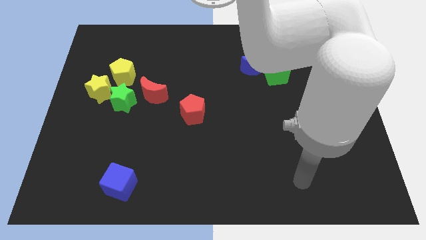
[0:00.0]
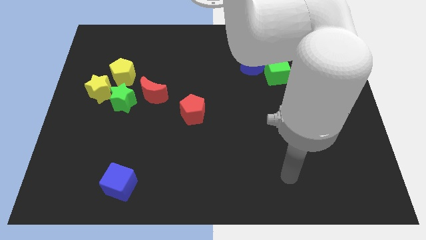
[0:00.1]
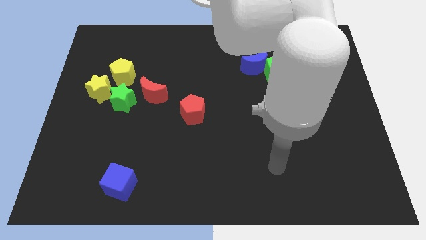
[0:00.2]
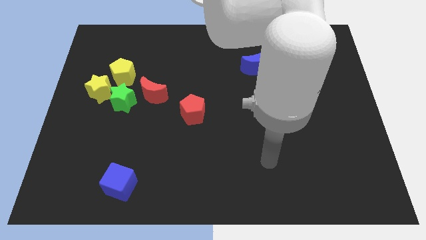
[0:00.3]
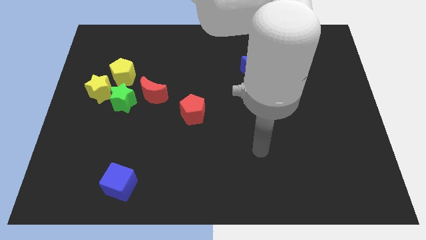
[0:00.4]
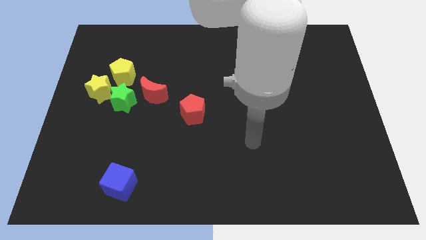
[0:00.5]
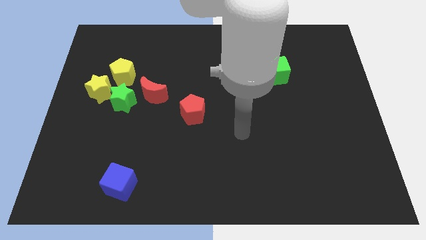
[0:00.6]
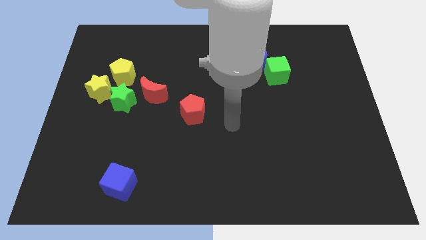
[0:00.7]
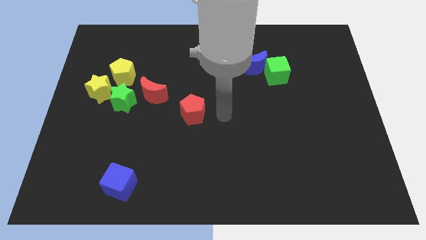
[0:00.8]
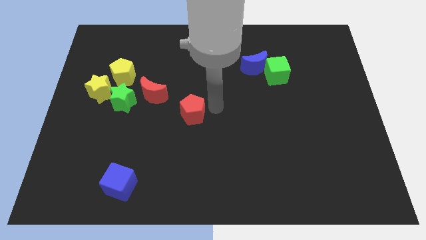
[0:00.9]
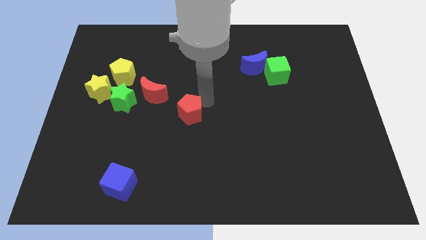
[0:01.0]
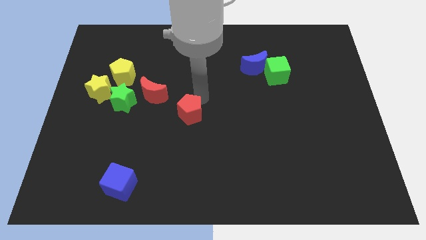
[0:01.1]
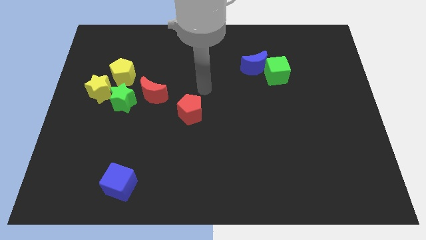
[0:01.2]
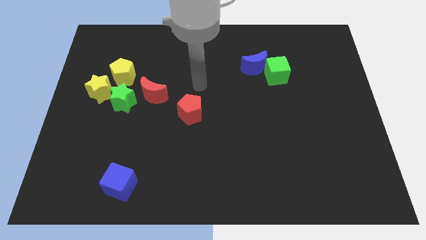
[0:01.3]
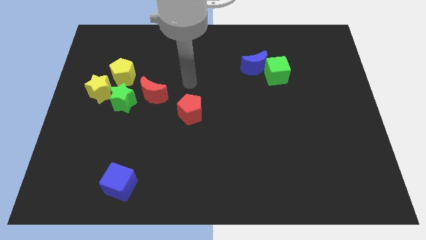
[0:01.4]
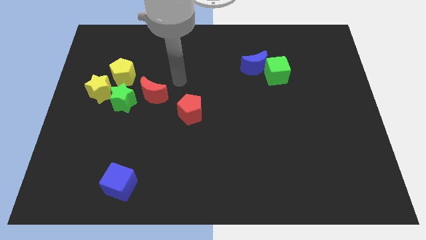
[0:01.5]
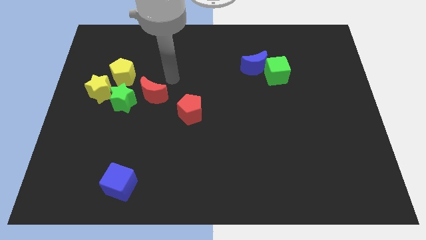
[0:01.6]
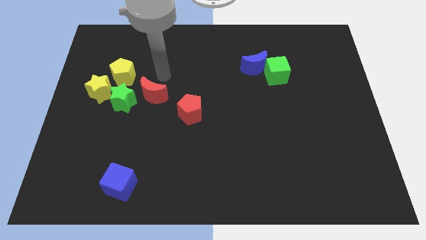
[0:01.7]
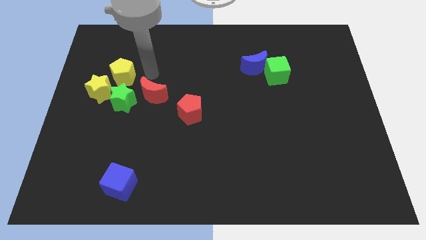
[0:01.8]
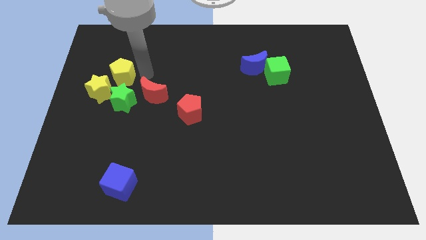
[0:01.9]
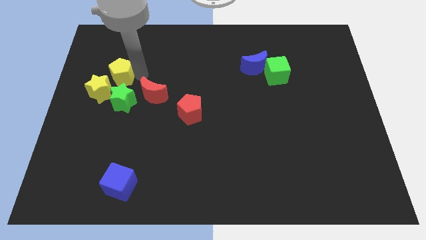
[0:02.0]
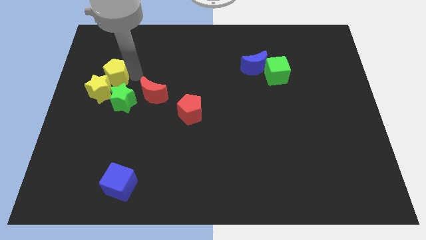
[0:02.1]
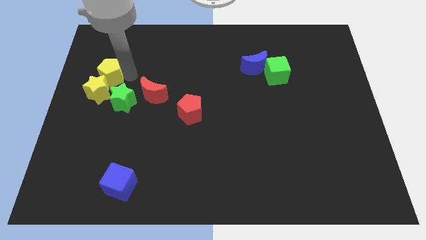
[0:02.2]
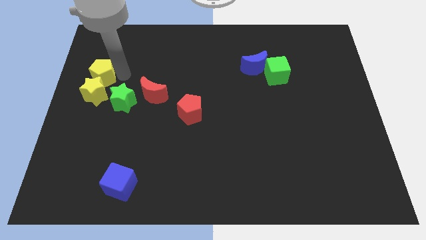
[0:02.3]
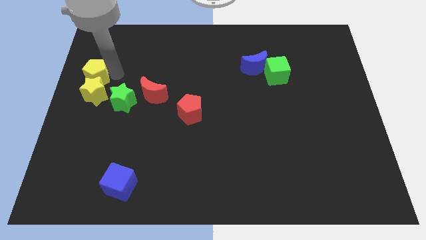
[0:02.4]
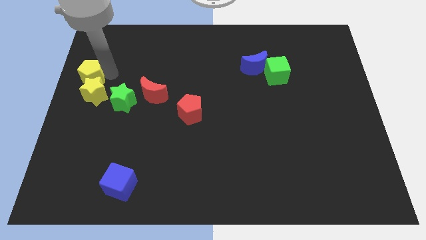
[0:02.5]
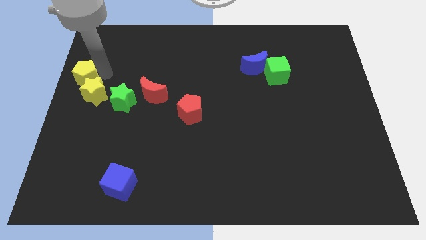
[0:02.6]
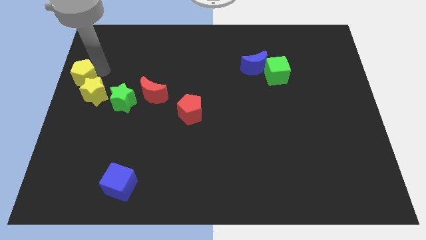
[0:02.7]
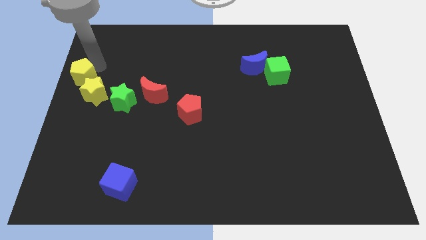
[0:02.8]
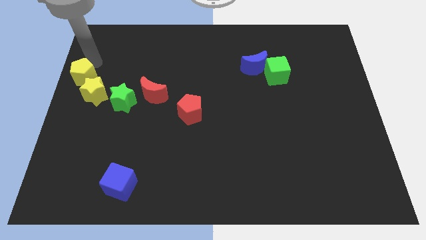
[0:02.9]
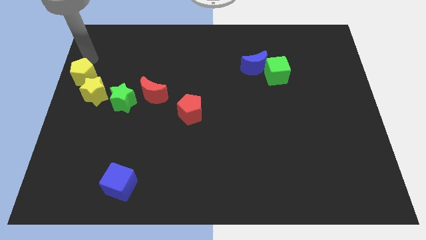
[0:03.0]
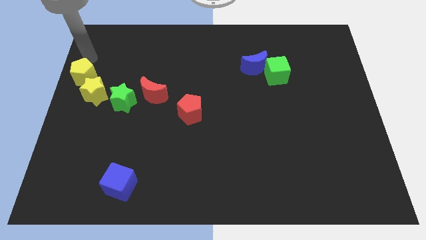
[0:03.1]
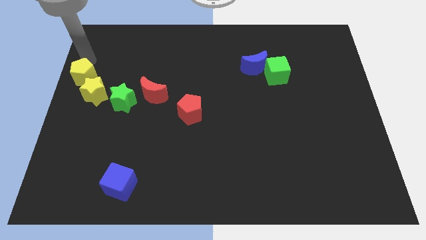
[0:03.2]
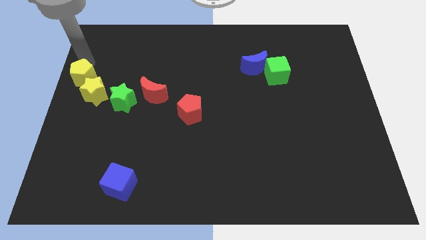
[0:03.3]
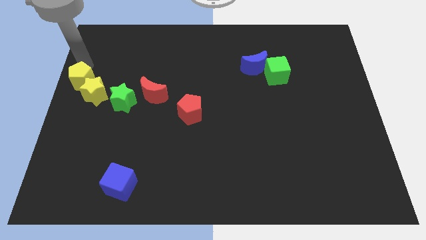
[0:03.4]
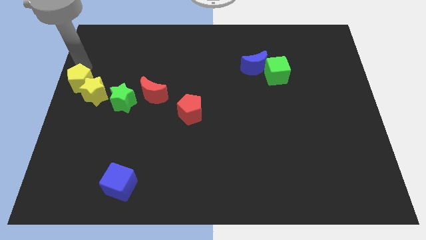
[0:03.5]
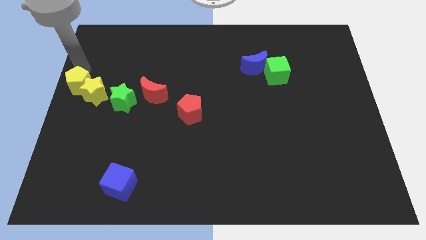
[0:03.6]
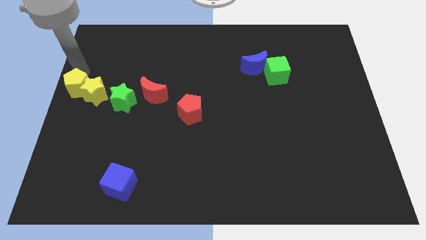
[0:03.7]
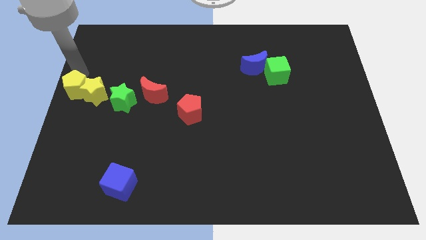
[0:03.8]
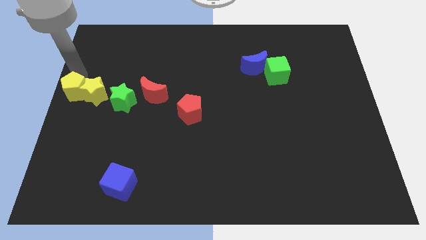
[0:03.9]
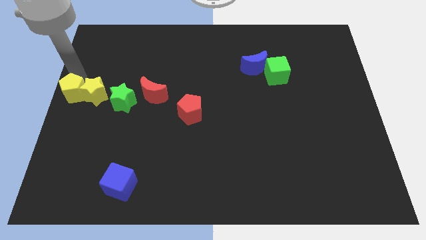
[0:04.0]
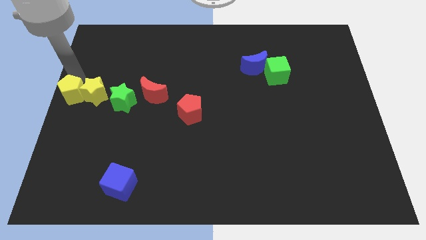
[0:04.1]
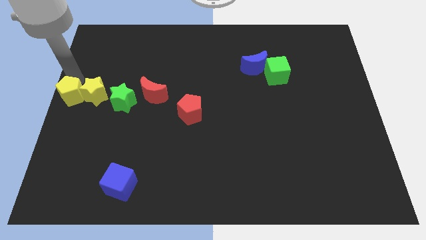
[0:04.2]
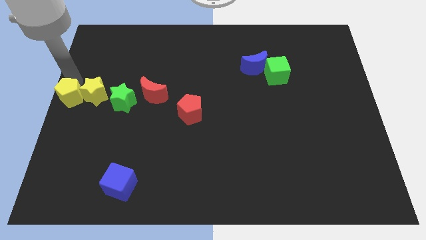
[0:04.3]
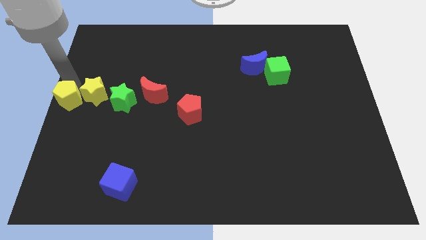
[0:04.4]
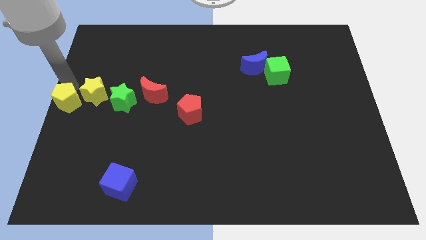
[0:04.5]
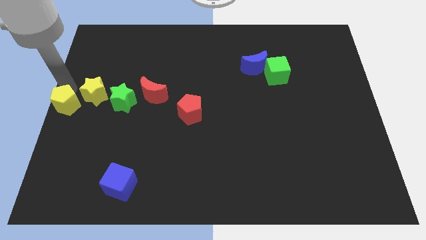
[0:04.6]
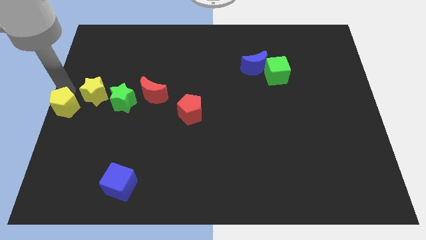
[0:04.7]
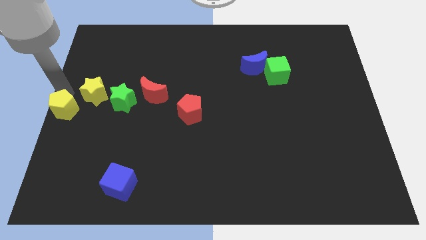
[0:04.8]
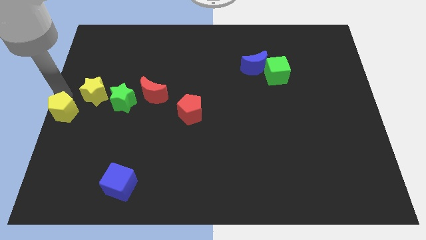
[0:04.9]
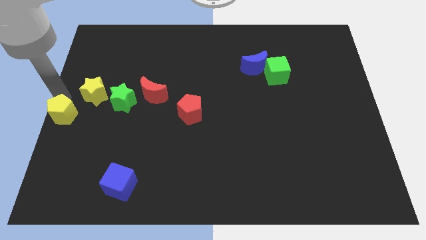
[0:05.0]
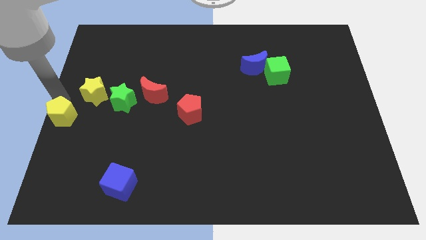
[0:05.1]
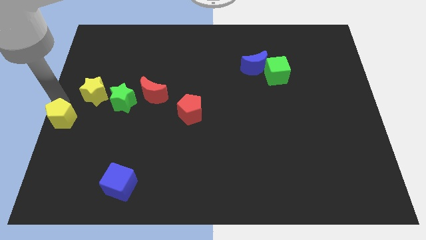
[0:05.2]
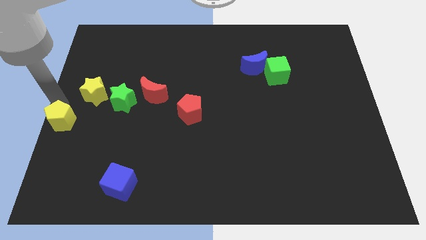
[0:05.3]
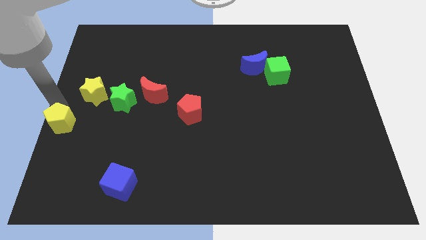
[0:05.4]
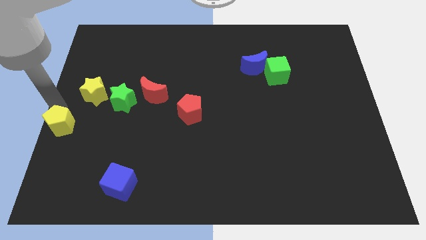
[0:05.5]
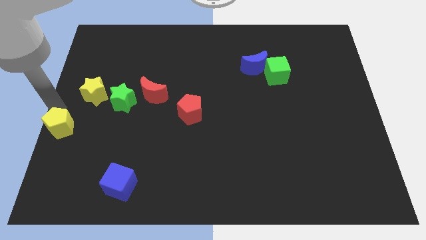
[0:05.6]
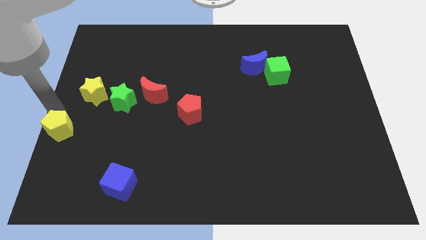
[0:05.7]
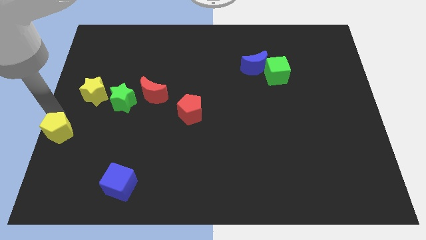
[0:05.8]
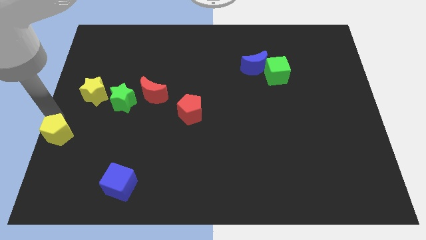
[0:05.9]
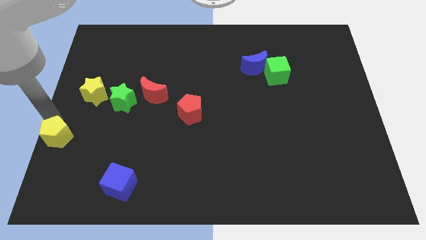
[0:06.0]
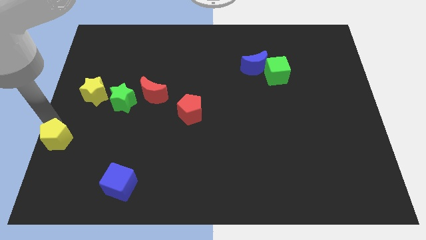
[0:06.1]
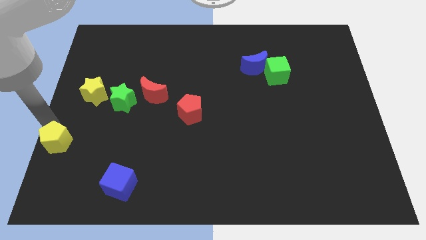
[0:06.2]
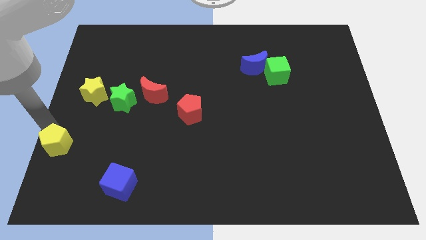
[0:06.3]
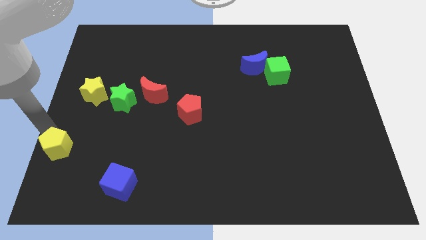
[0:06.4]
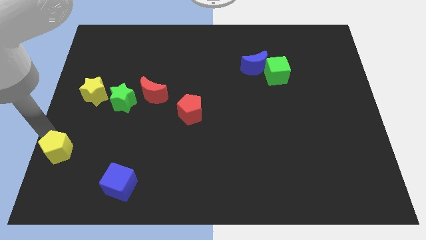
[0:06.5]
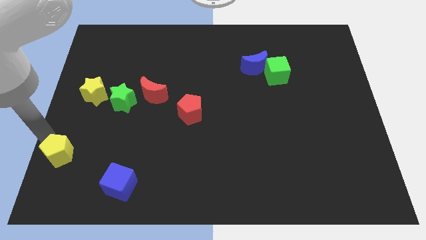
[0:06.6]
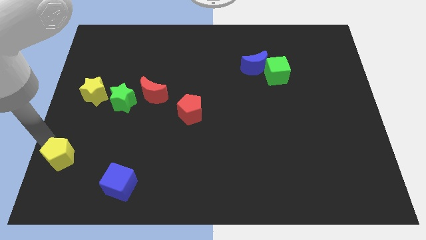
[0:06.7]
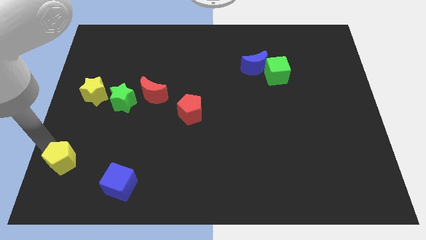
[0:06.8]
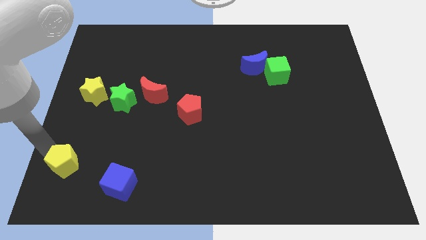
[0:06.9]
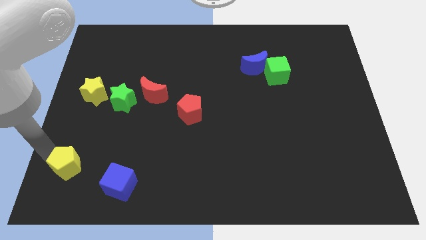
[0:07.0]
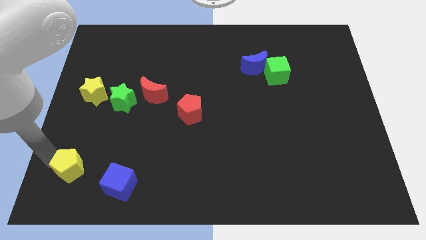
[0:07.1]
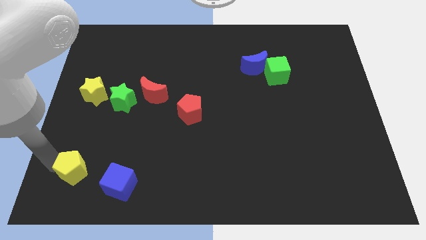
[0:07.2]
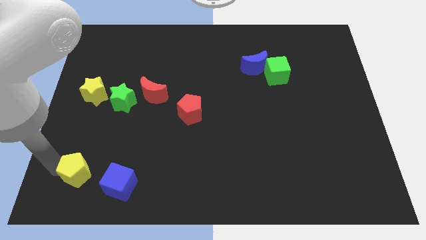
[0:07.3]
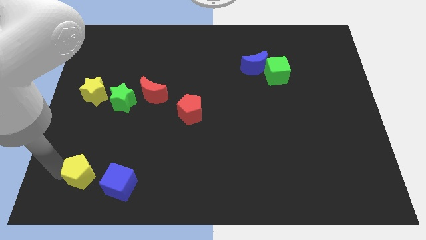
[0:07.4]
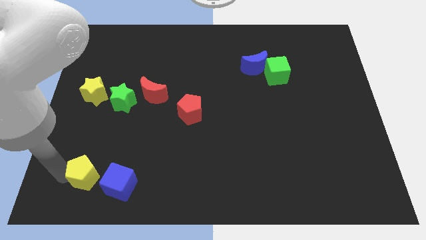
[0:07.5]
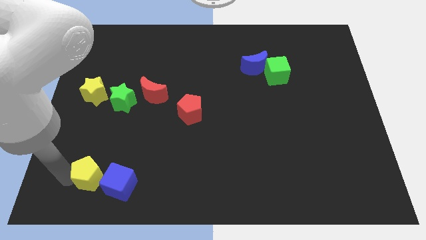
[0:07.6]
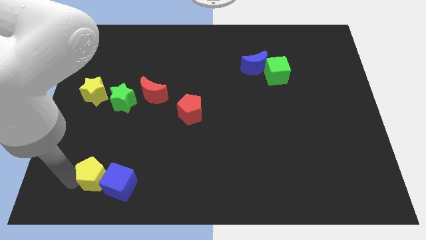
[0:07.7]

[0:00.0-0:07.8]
put the yellow pentagon next to the blue cube
